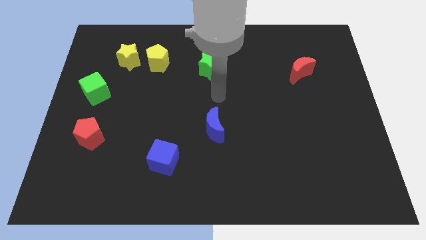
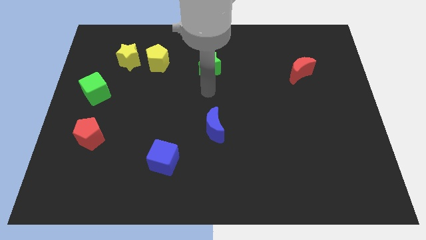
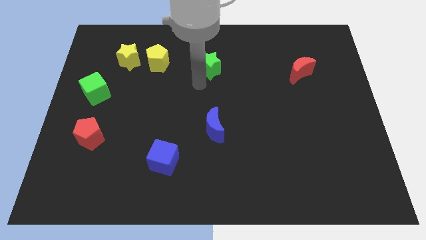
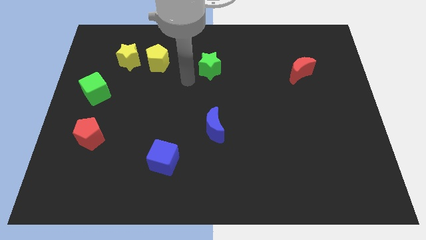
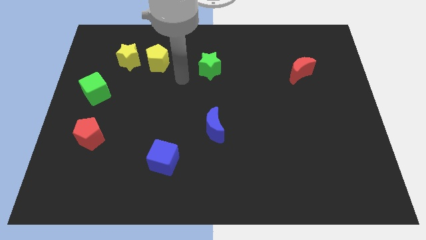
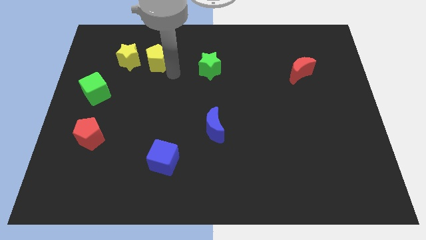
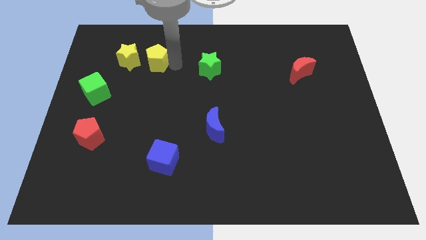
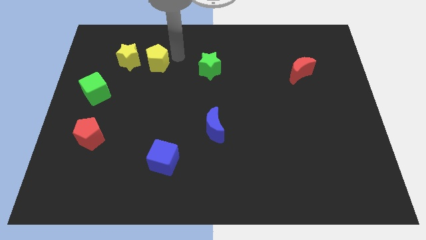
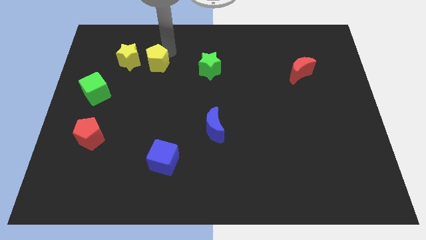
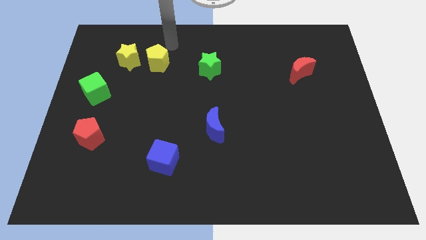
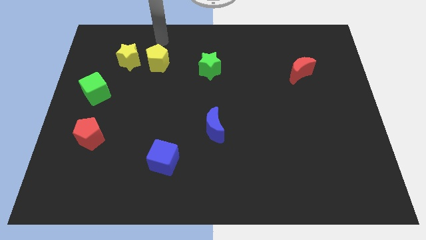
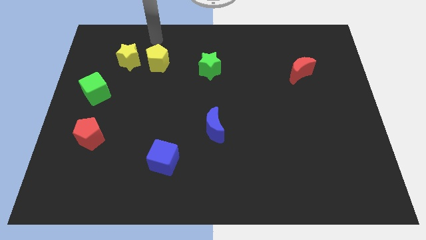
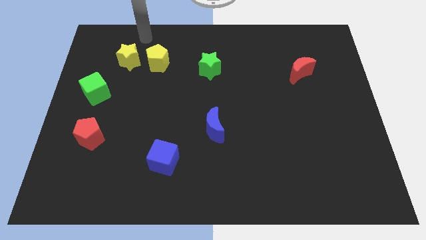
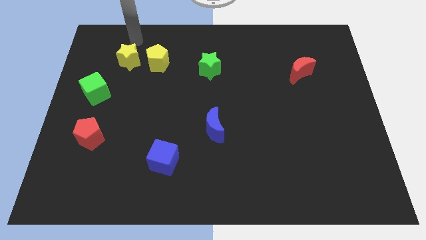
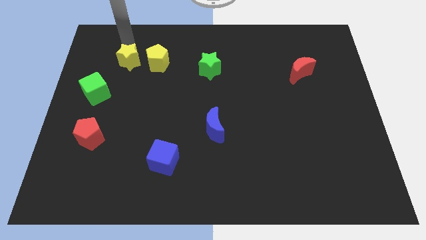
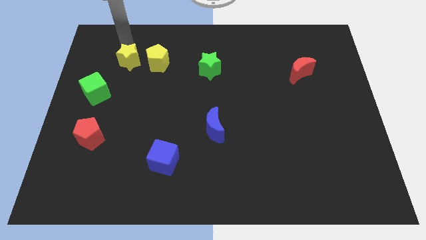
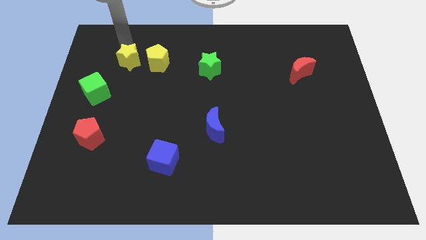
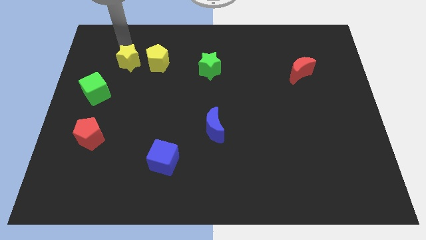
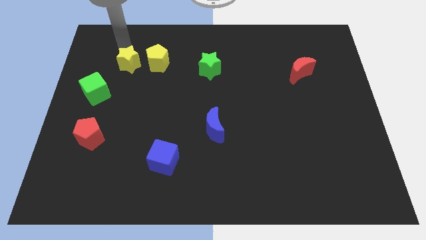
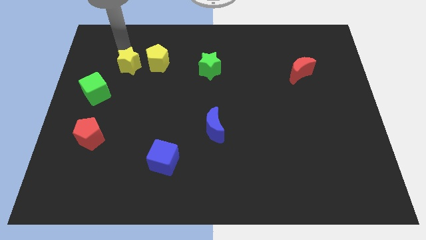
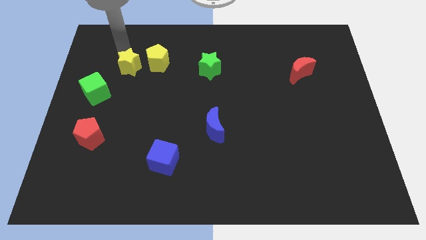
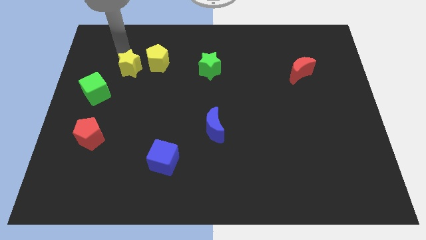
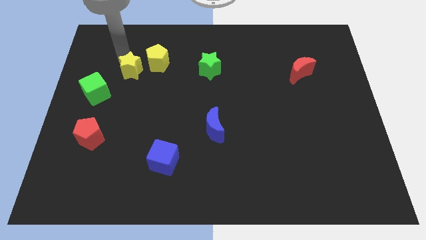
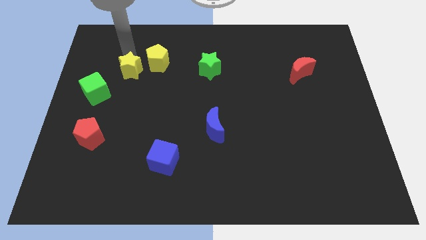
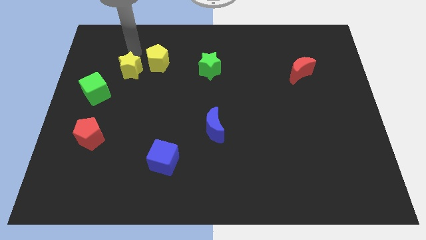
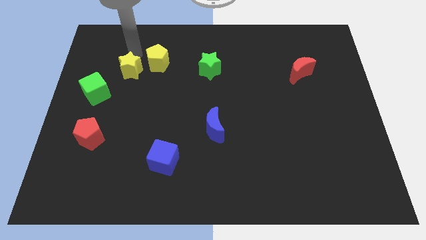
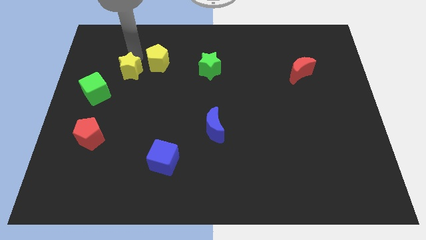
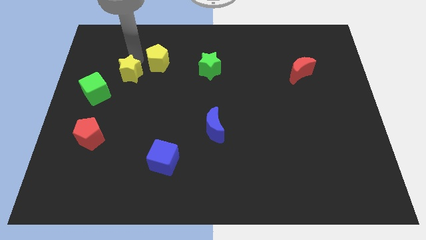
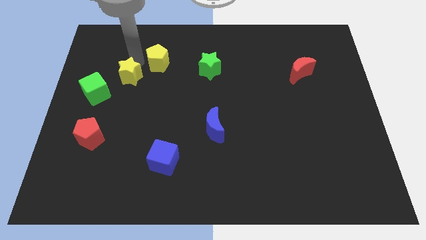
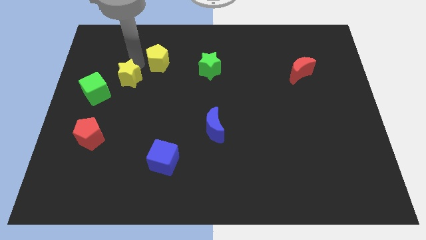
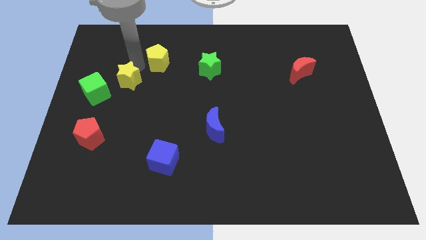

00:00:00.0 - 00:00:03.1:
slide the yellow star a little down

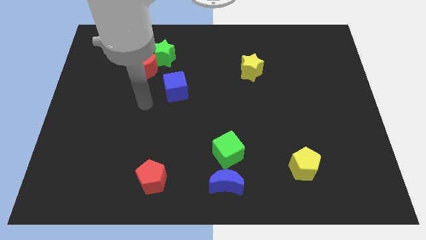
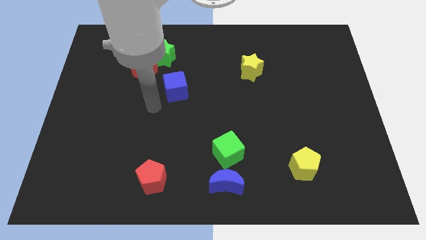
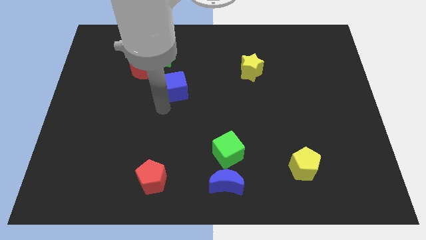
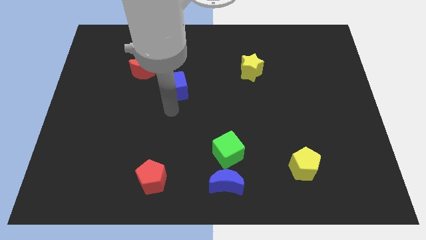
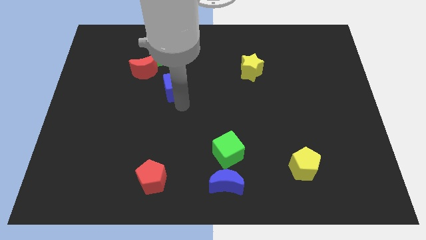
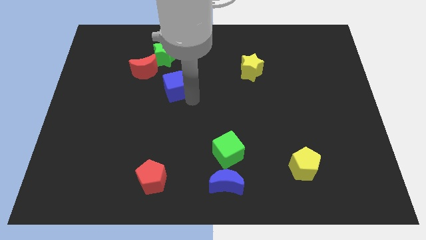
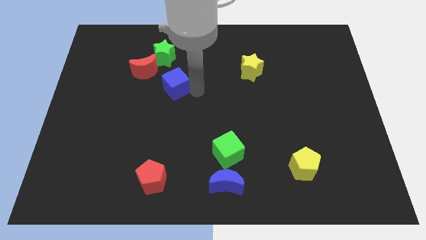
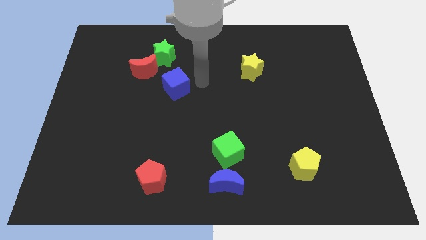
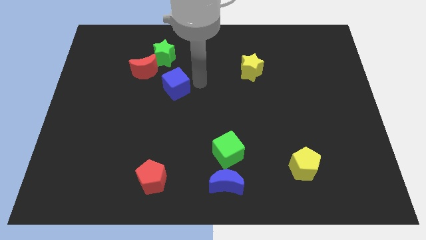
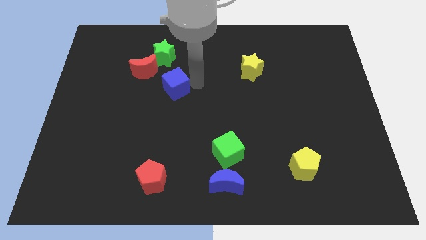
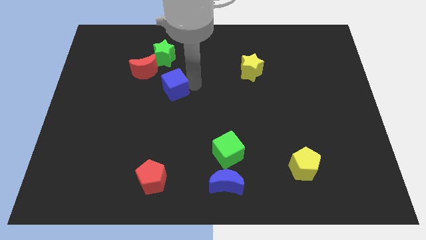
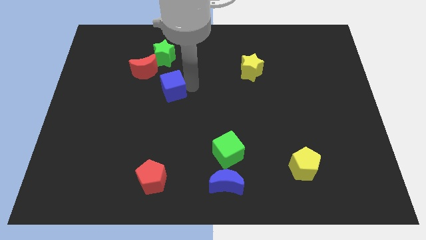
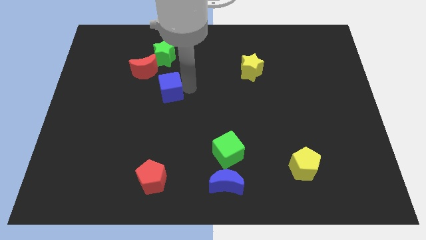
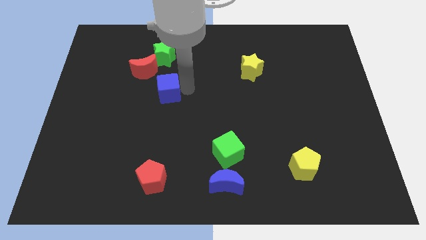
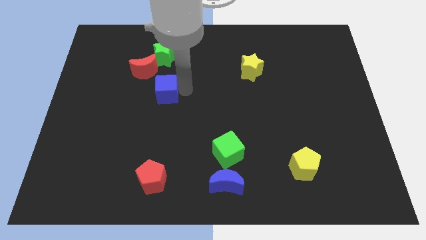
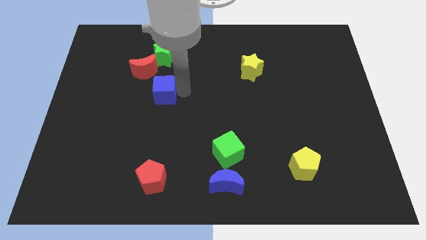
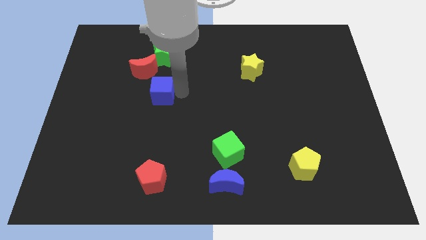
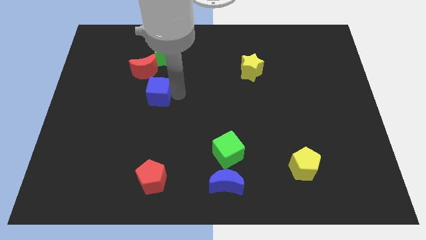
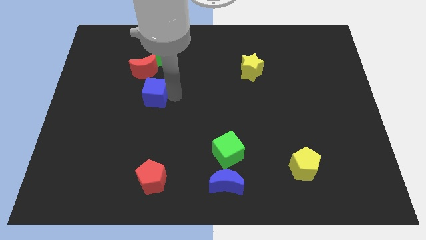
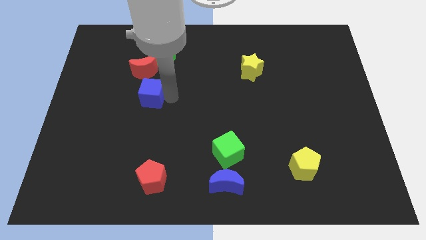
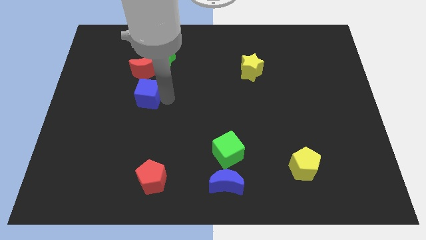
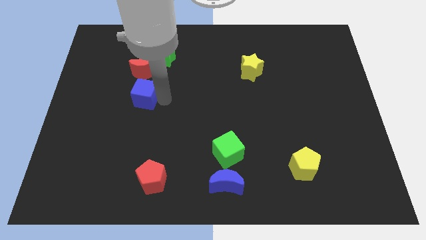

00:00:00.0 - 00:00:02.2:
slightly push the blue cube left

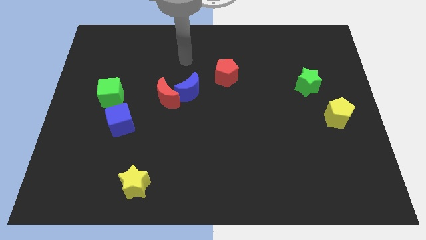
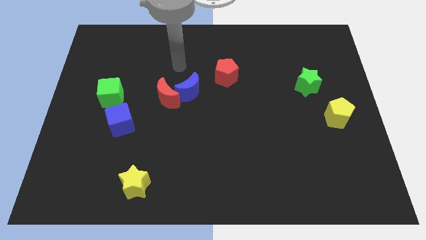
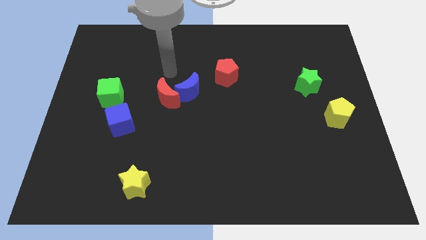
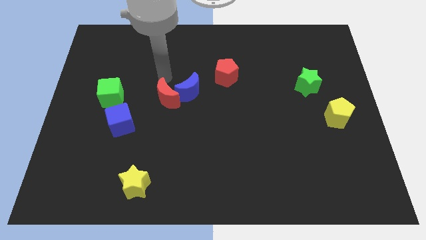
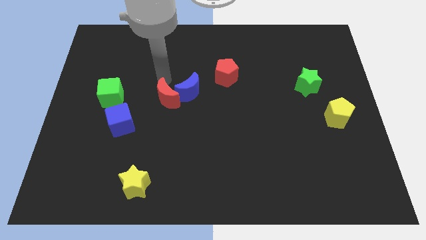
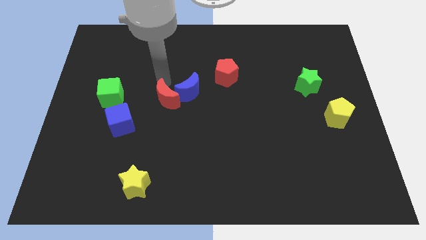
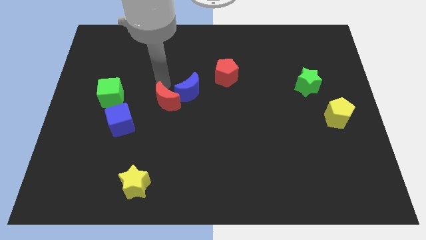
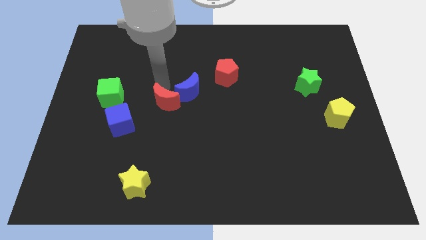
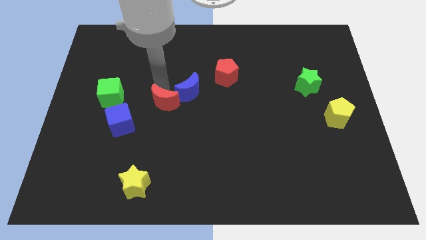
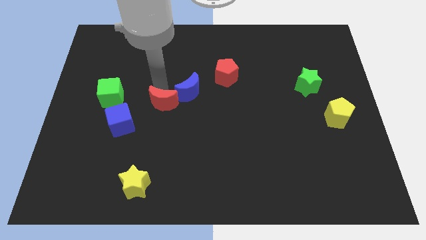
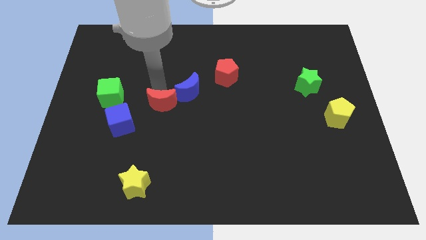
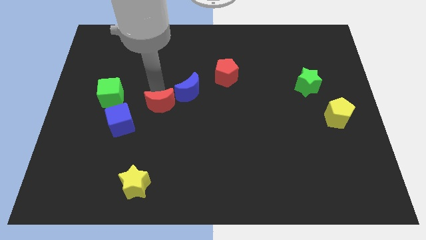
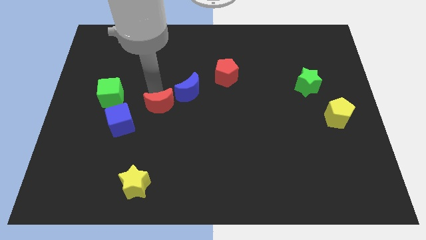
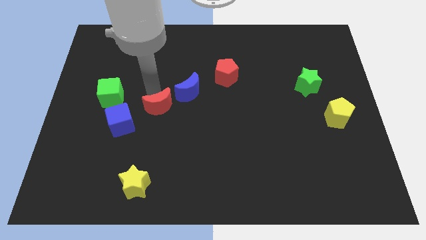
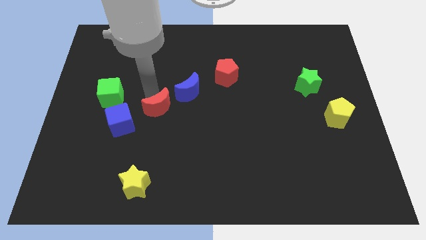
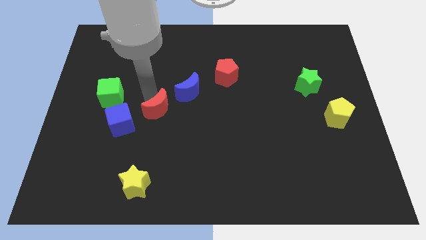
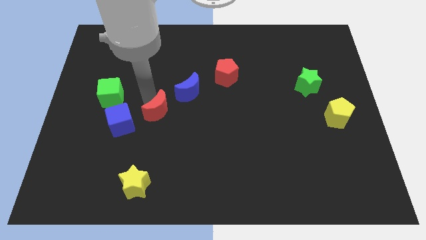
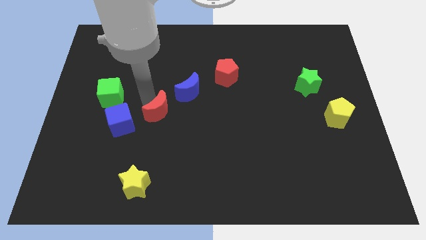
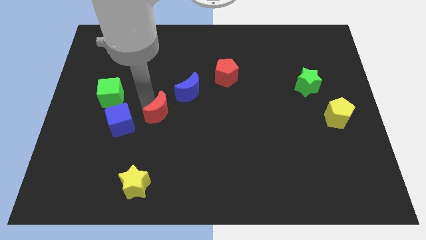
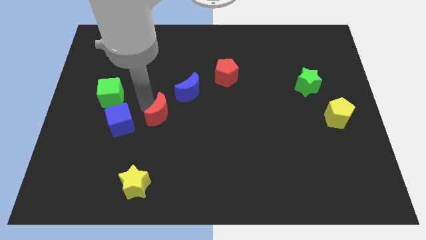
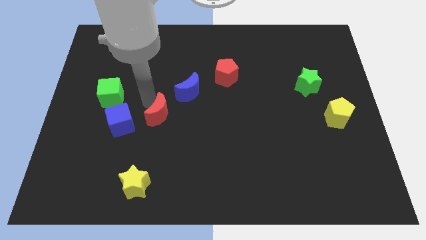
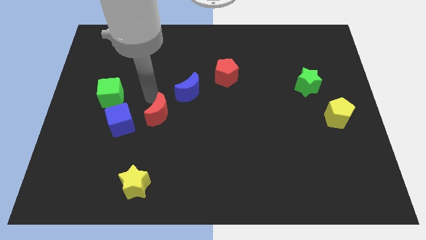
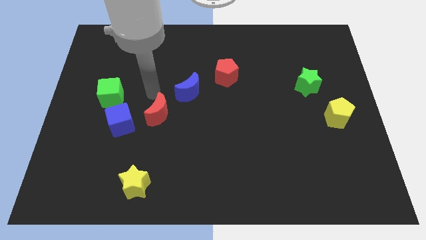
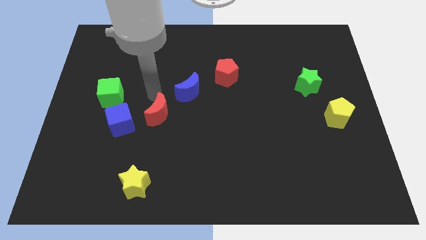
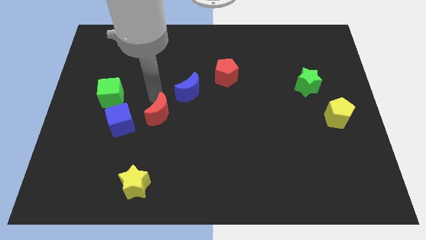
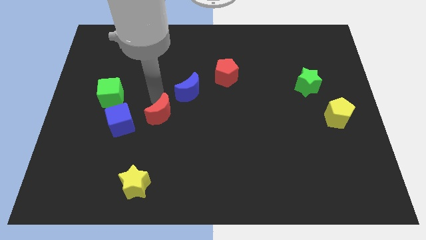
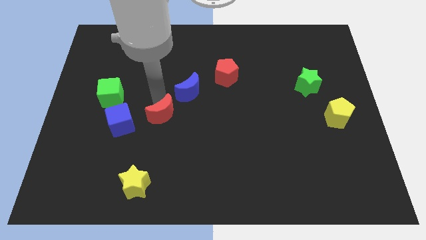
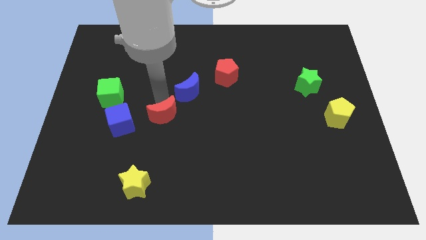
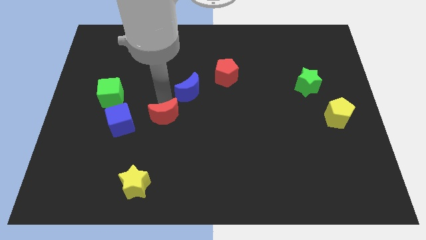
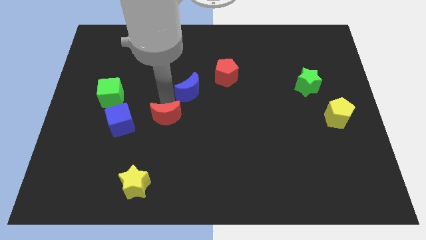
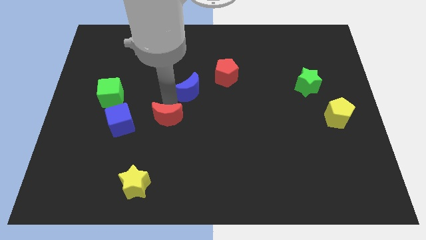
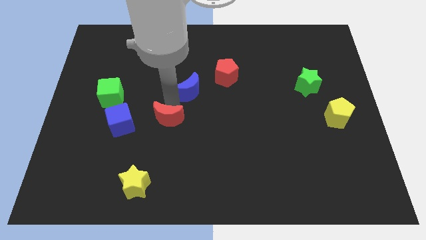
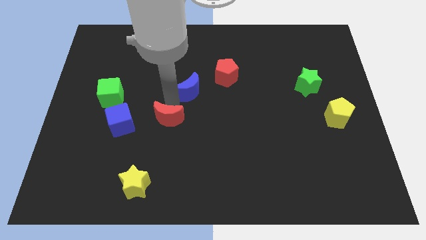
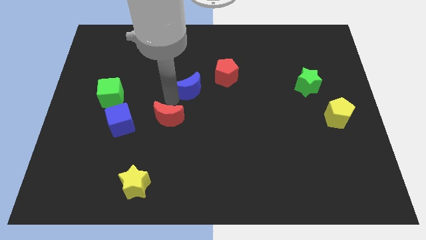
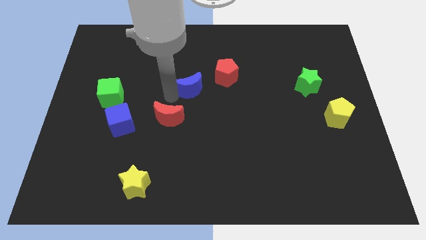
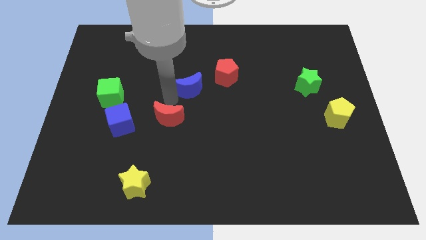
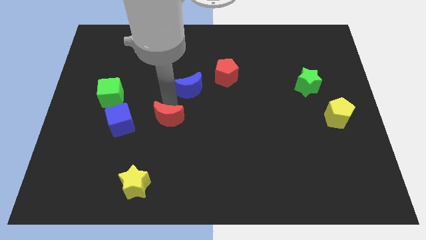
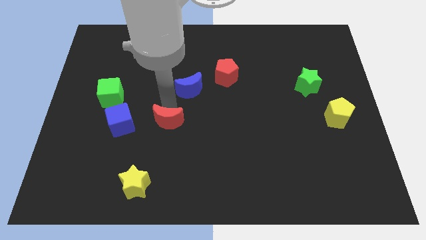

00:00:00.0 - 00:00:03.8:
push the red moon downwards slightly
